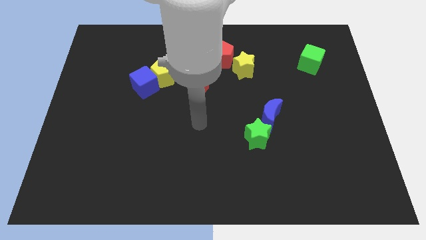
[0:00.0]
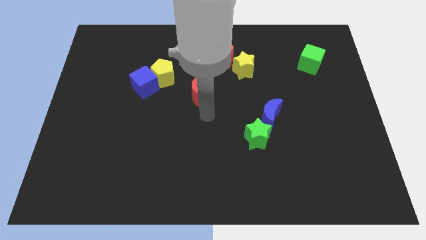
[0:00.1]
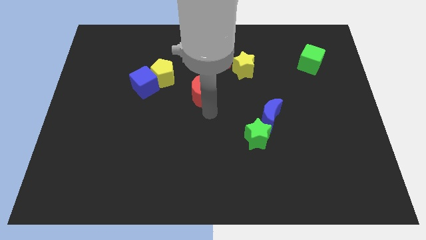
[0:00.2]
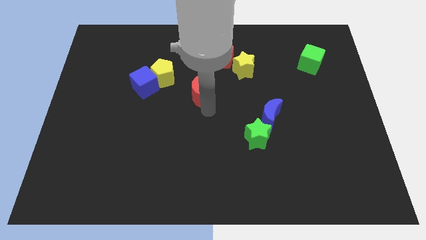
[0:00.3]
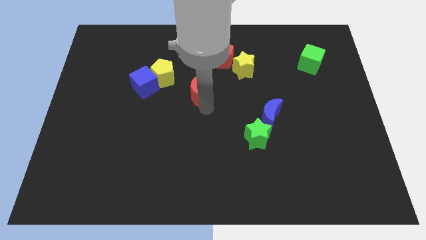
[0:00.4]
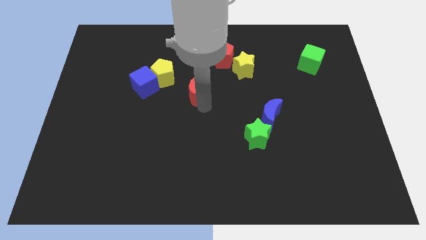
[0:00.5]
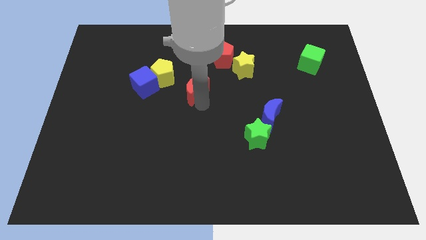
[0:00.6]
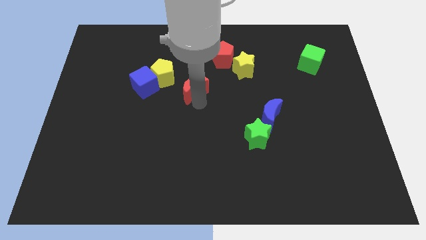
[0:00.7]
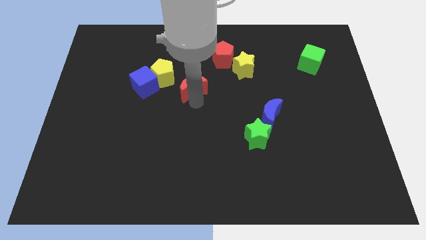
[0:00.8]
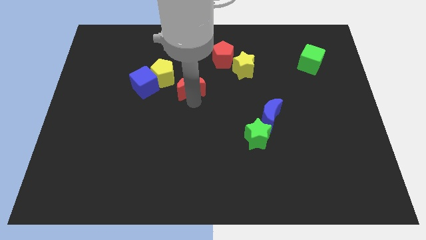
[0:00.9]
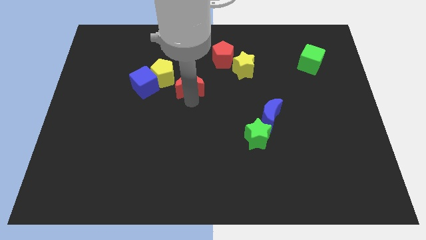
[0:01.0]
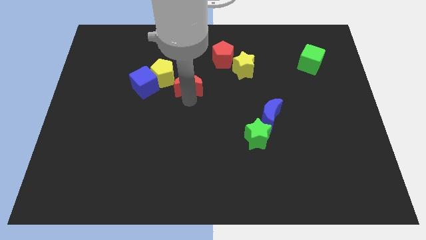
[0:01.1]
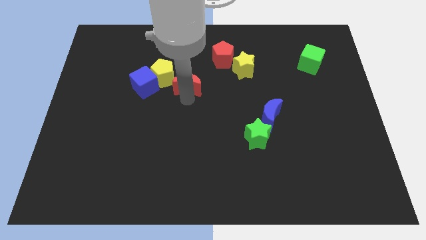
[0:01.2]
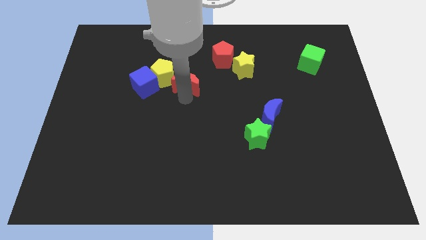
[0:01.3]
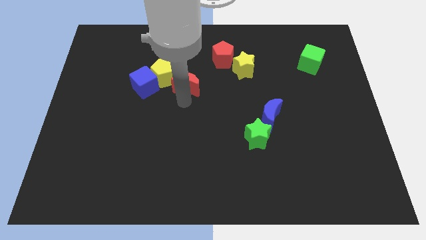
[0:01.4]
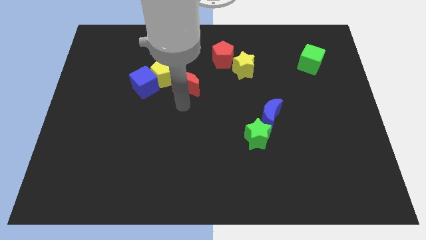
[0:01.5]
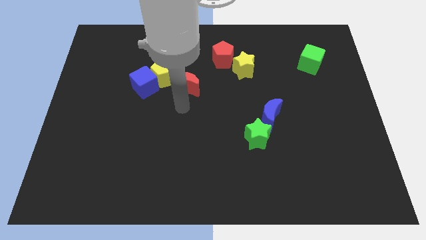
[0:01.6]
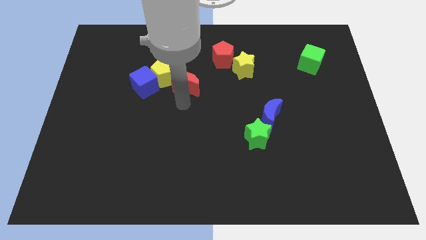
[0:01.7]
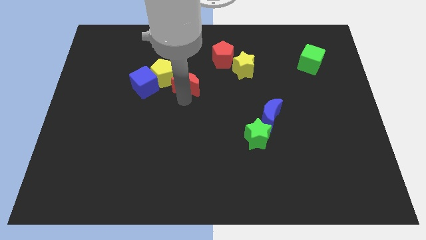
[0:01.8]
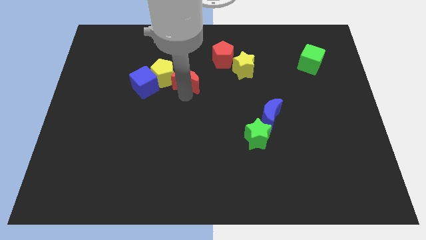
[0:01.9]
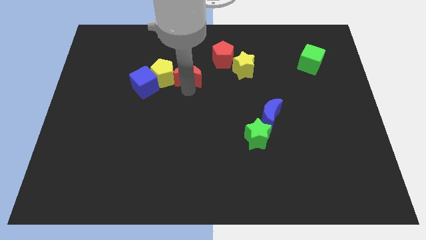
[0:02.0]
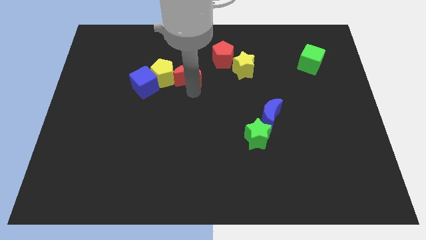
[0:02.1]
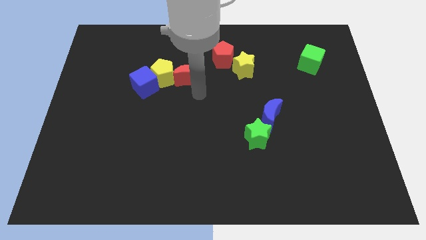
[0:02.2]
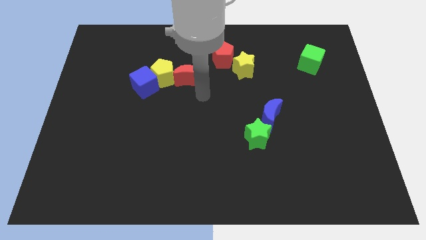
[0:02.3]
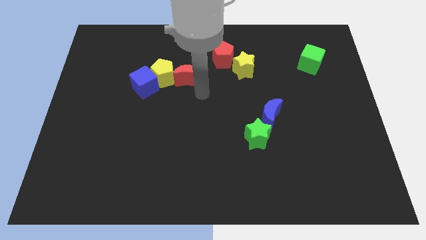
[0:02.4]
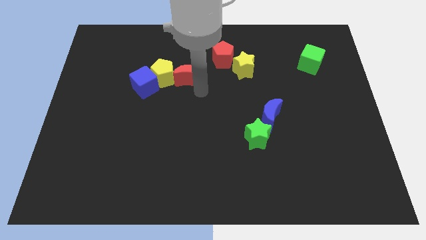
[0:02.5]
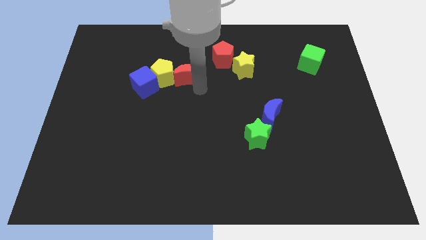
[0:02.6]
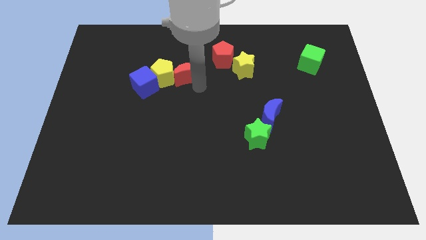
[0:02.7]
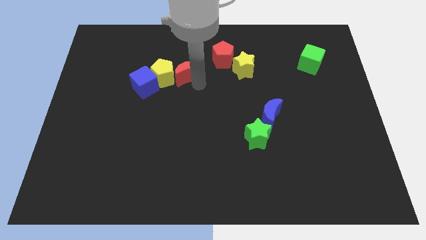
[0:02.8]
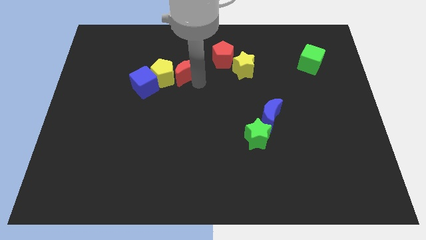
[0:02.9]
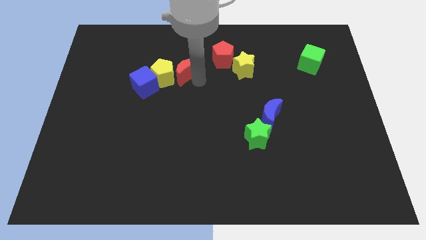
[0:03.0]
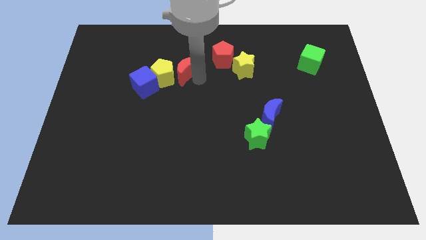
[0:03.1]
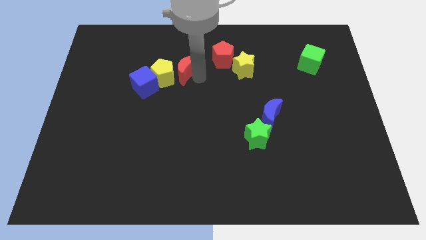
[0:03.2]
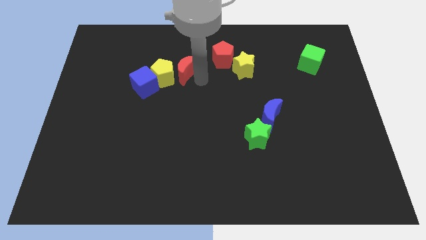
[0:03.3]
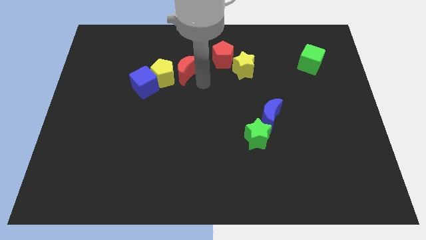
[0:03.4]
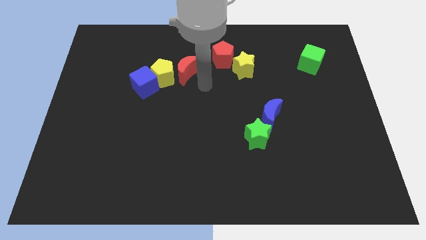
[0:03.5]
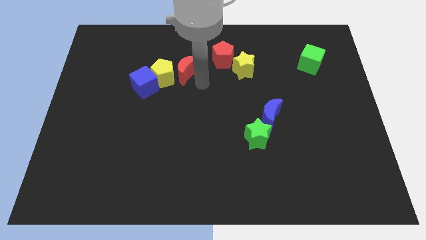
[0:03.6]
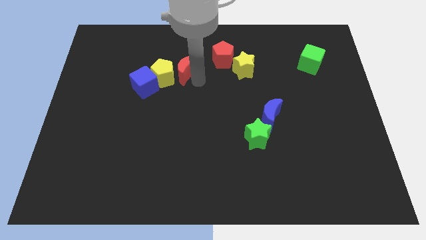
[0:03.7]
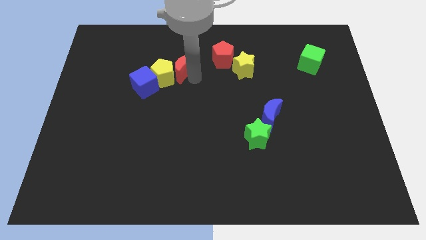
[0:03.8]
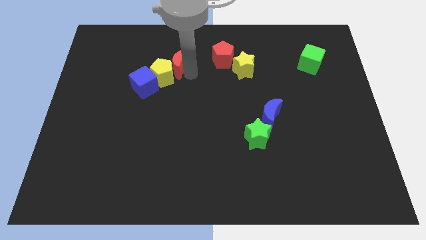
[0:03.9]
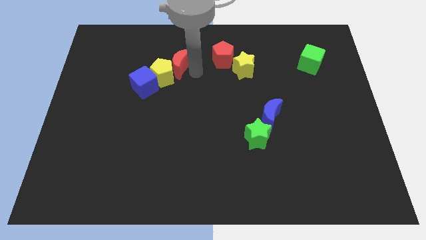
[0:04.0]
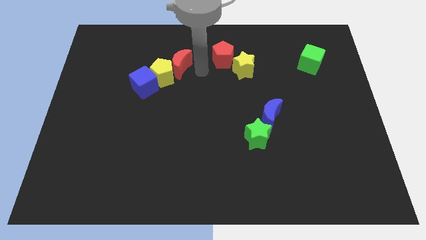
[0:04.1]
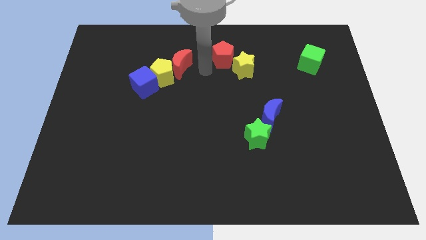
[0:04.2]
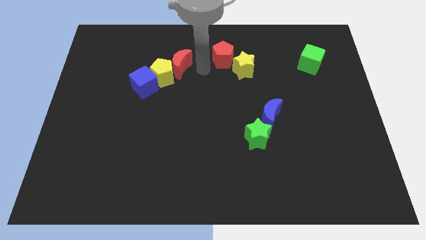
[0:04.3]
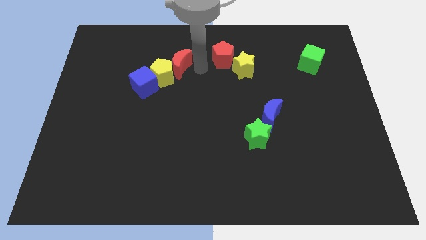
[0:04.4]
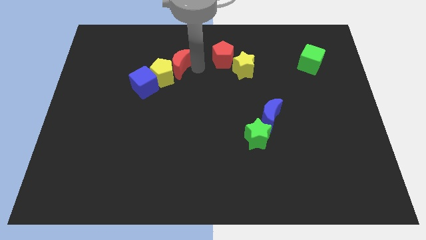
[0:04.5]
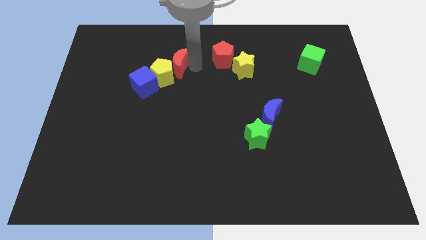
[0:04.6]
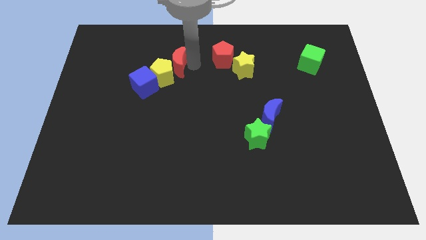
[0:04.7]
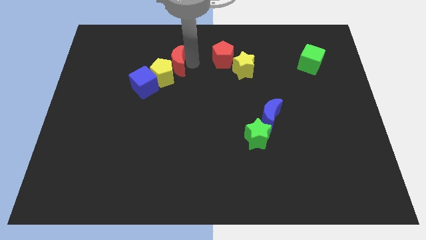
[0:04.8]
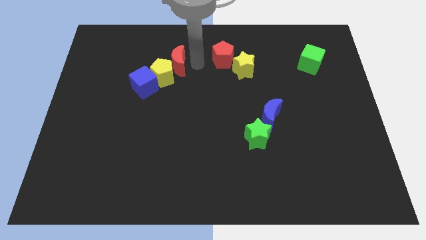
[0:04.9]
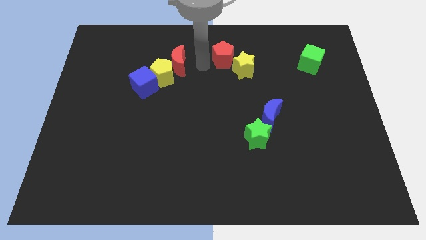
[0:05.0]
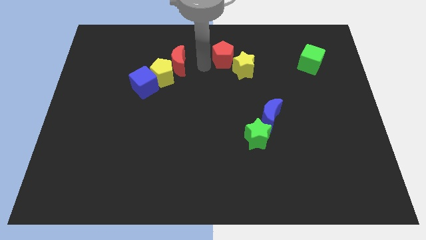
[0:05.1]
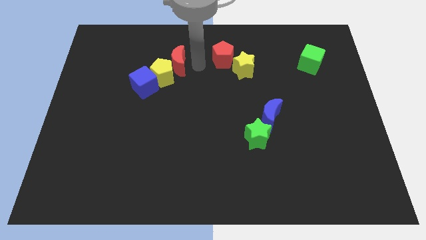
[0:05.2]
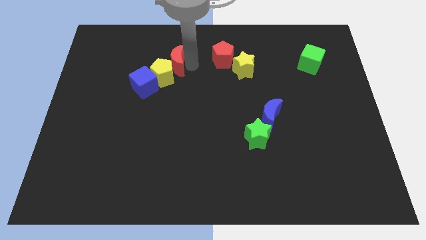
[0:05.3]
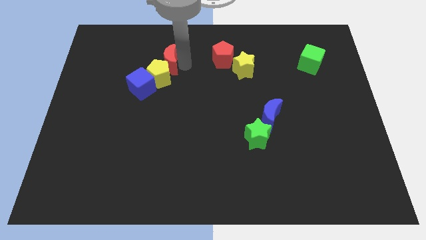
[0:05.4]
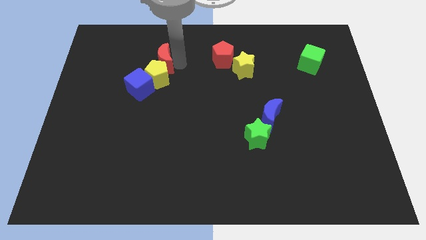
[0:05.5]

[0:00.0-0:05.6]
move the red moon to the top left of the yellow pentagon

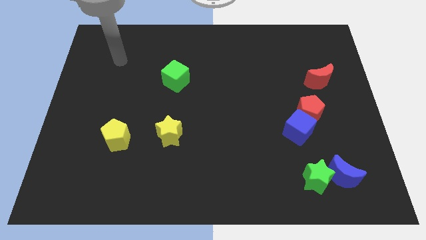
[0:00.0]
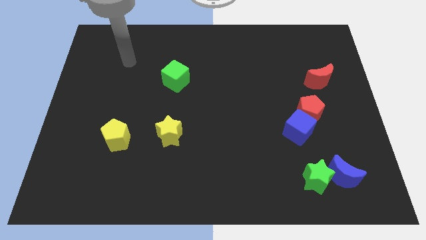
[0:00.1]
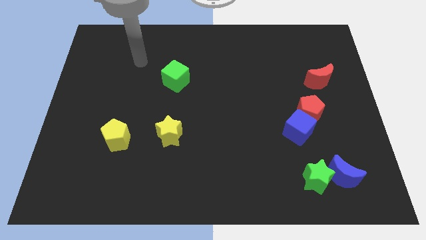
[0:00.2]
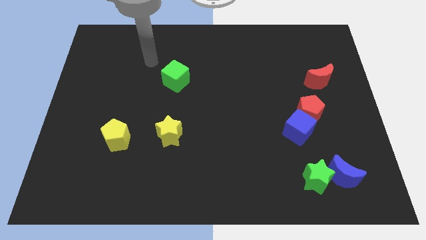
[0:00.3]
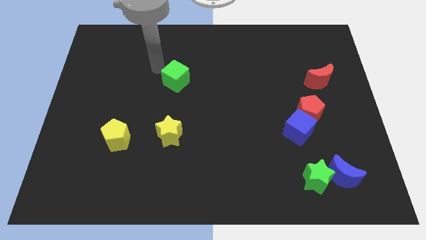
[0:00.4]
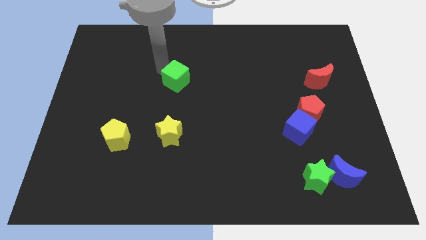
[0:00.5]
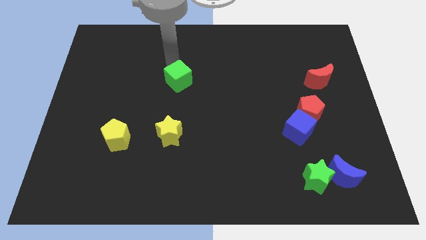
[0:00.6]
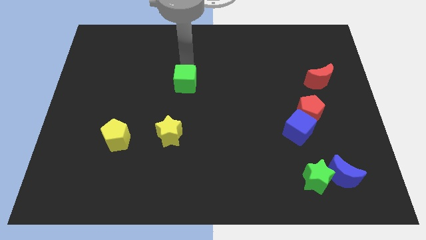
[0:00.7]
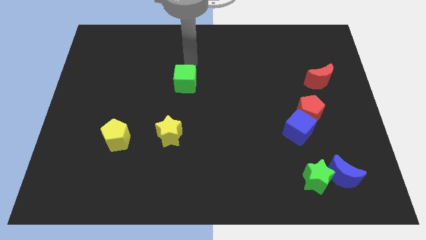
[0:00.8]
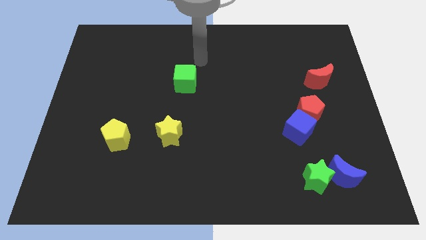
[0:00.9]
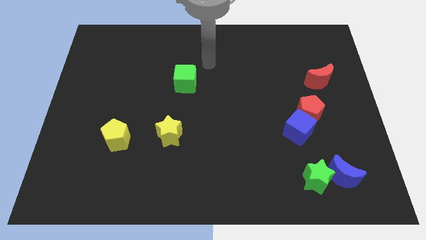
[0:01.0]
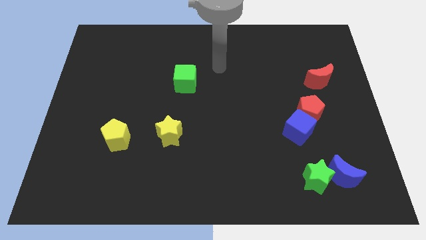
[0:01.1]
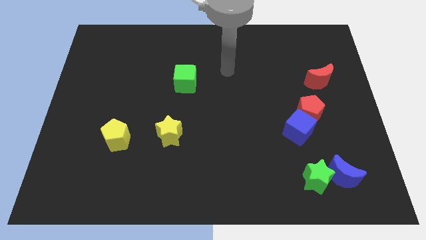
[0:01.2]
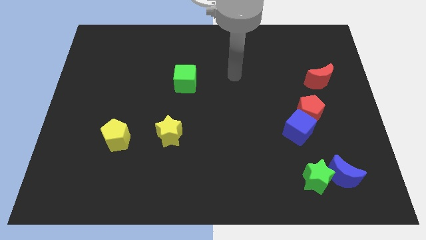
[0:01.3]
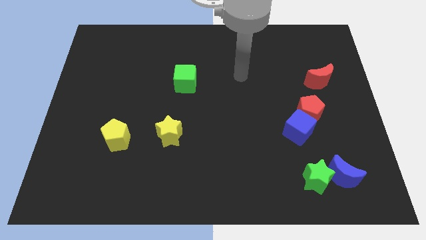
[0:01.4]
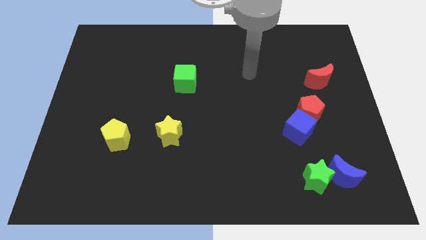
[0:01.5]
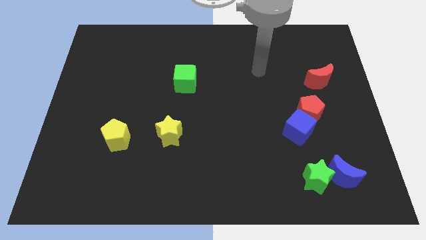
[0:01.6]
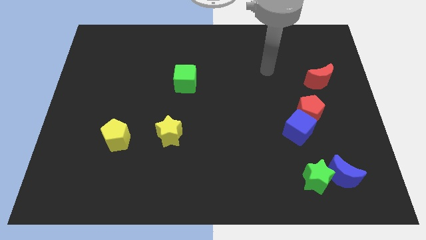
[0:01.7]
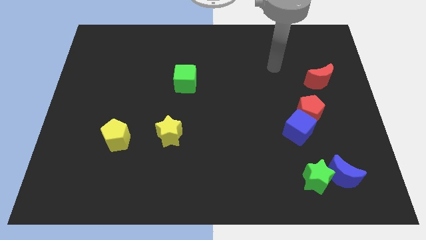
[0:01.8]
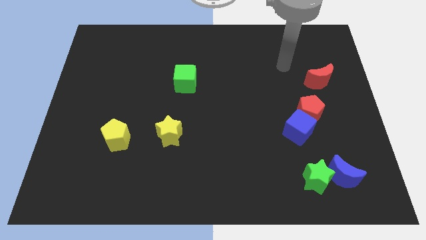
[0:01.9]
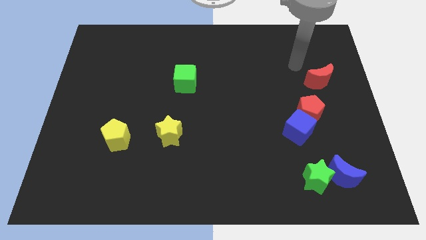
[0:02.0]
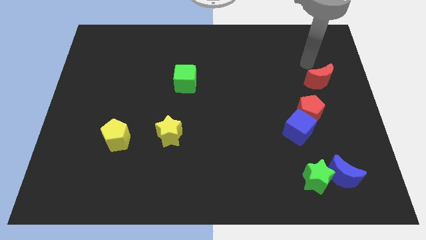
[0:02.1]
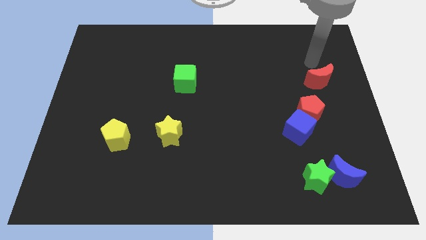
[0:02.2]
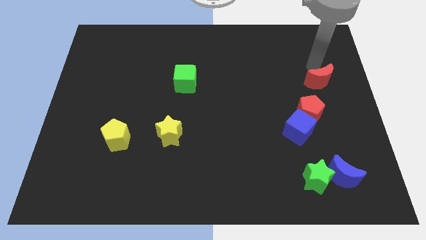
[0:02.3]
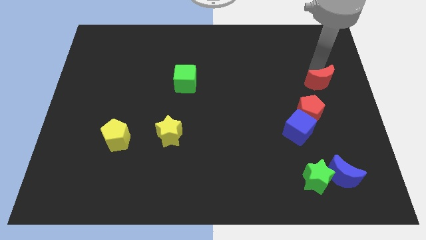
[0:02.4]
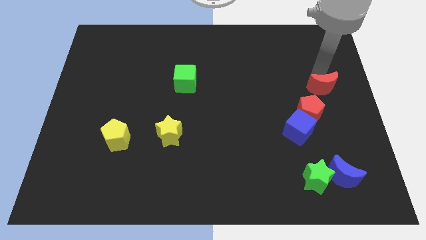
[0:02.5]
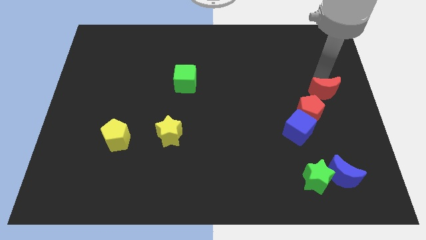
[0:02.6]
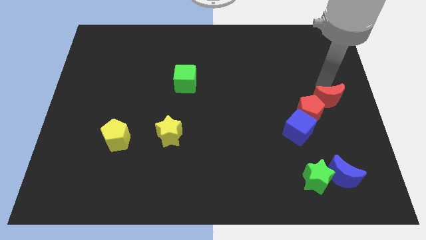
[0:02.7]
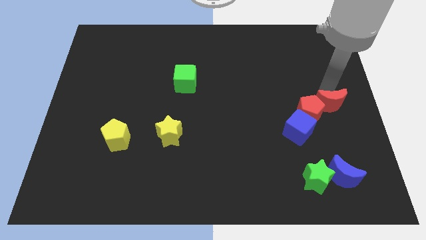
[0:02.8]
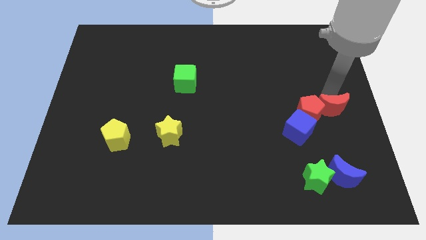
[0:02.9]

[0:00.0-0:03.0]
push the red moon diagonally down and to the right of the red pentagon
